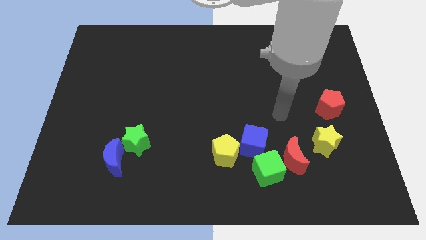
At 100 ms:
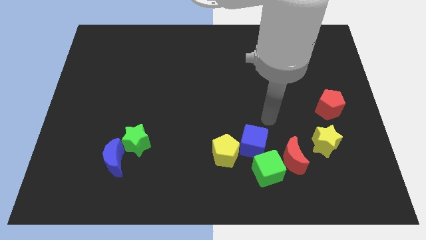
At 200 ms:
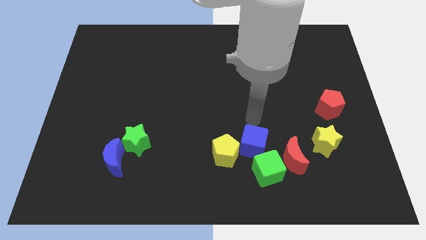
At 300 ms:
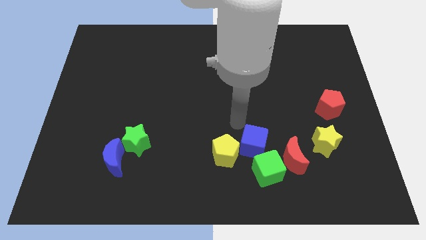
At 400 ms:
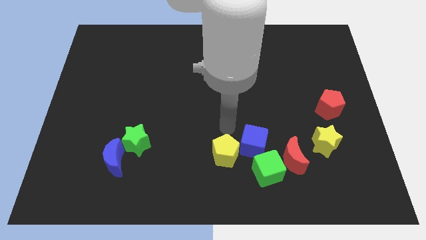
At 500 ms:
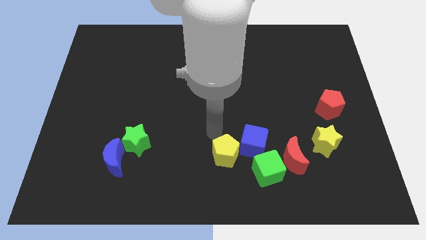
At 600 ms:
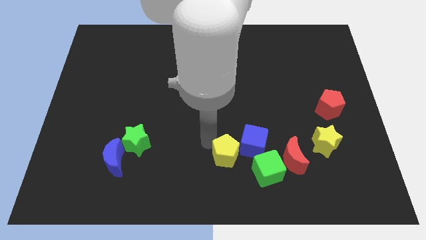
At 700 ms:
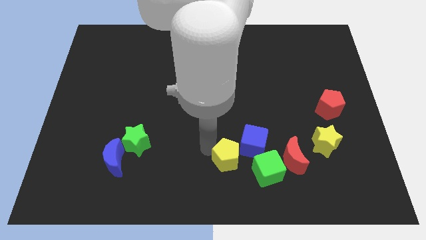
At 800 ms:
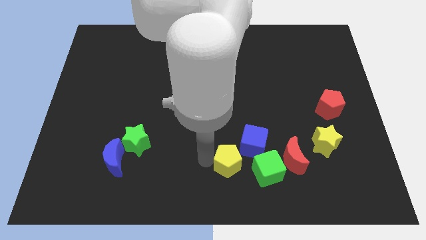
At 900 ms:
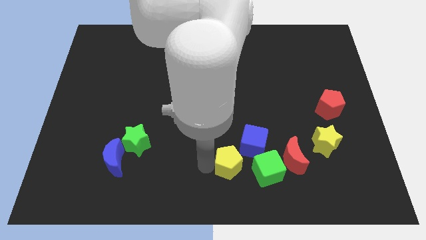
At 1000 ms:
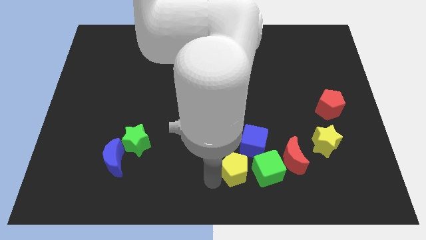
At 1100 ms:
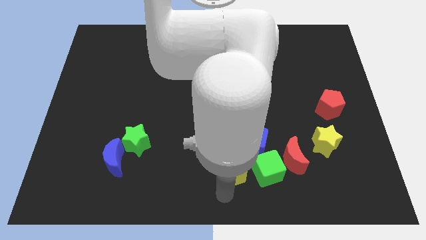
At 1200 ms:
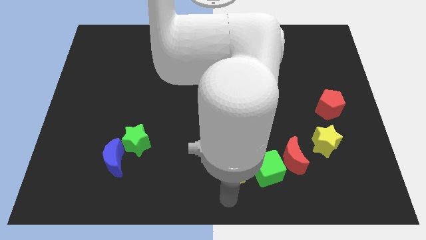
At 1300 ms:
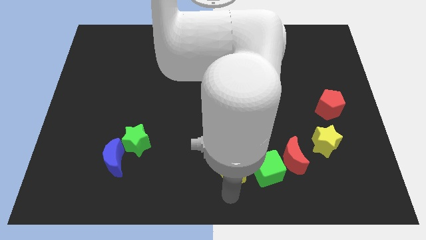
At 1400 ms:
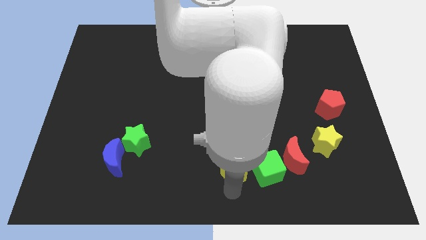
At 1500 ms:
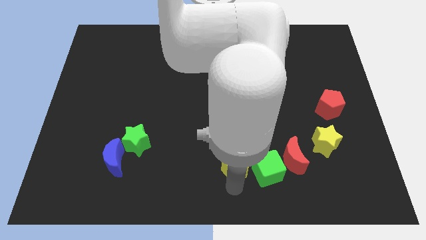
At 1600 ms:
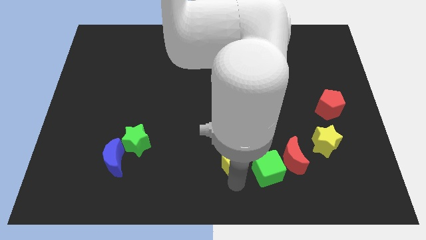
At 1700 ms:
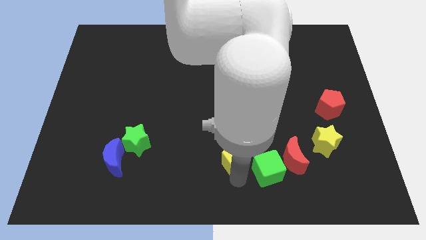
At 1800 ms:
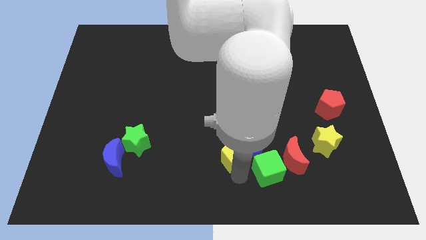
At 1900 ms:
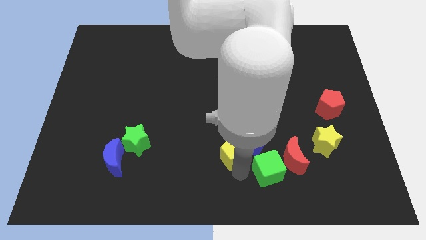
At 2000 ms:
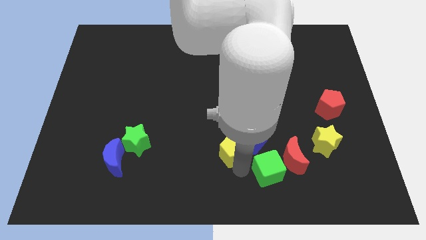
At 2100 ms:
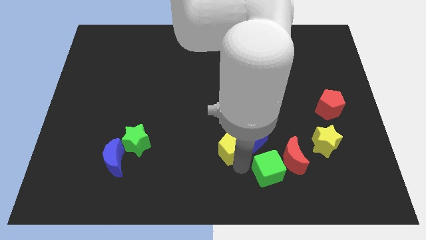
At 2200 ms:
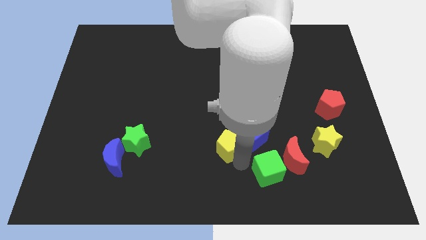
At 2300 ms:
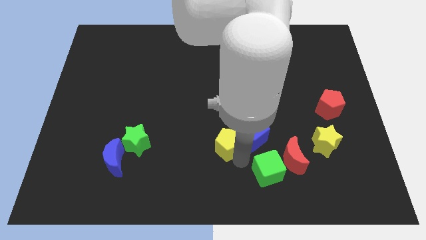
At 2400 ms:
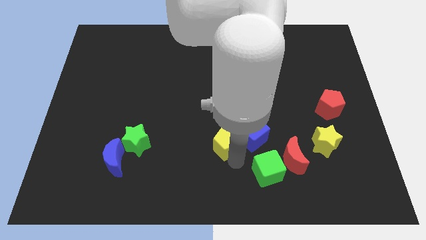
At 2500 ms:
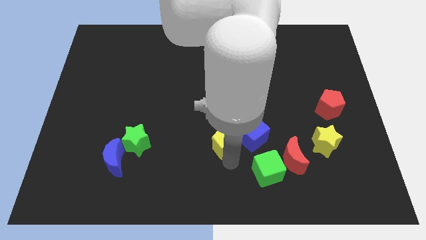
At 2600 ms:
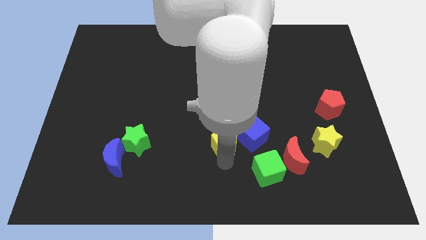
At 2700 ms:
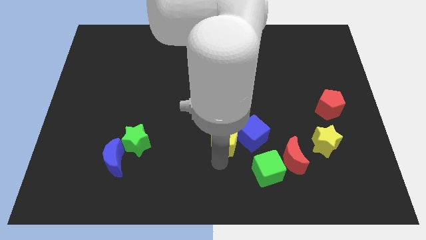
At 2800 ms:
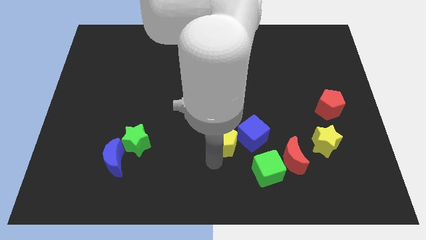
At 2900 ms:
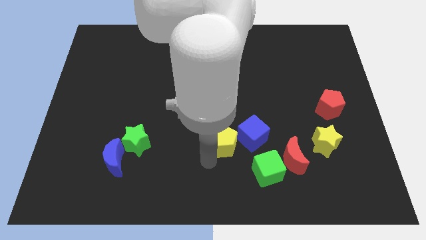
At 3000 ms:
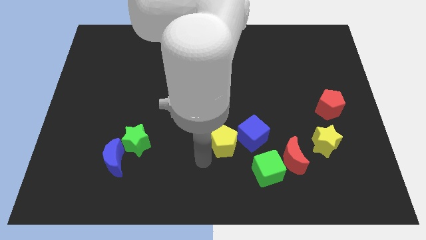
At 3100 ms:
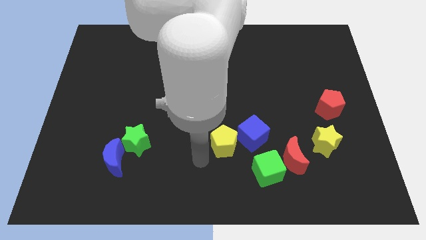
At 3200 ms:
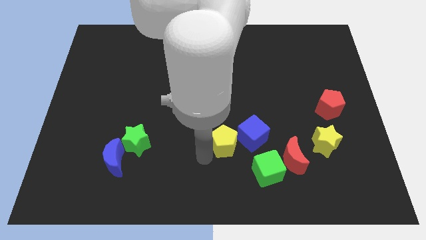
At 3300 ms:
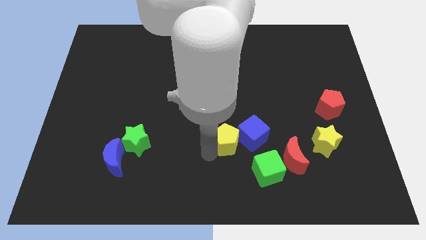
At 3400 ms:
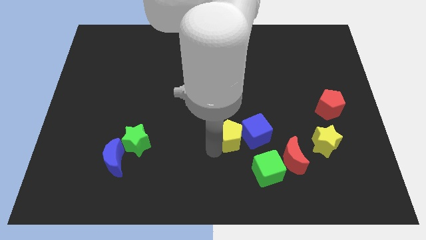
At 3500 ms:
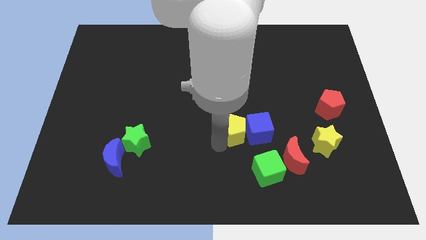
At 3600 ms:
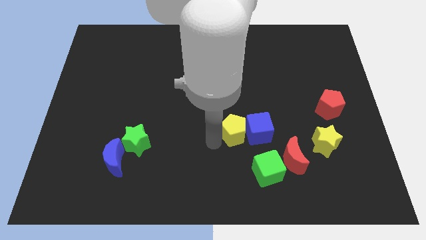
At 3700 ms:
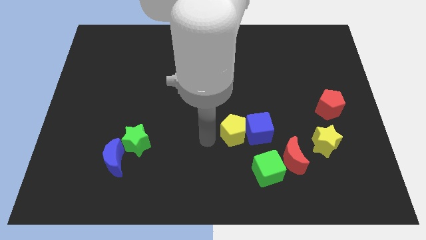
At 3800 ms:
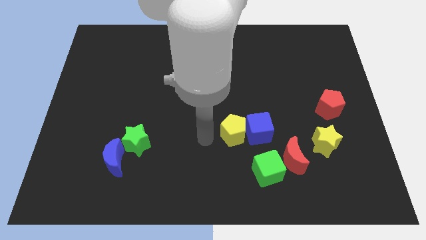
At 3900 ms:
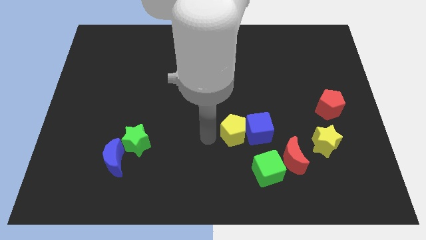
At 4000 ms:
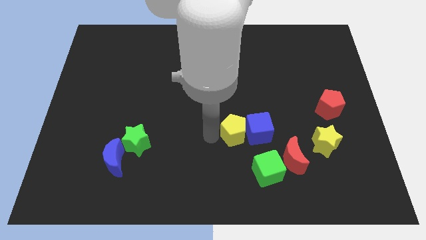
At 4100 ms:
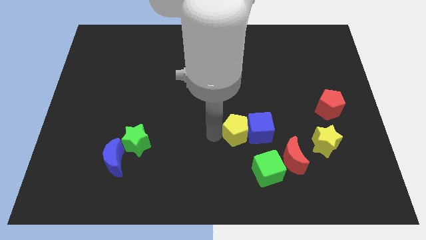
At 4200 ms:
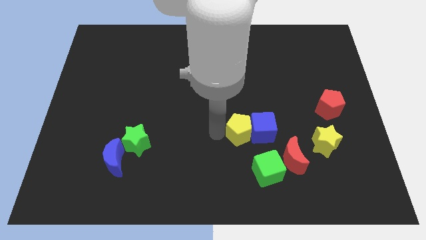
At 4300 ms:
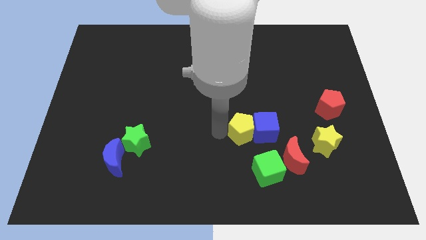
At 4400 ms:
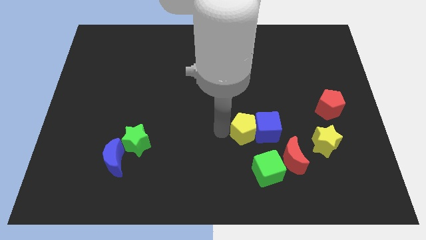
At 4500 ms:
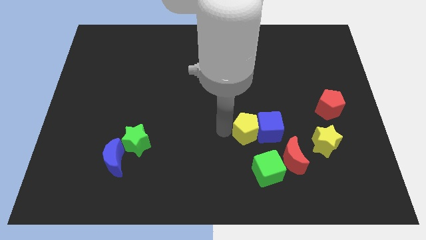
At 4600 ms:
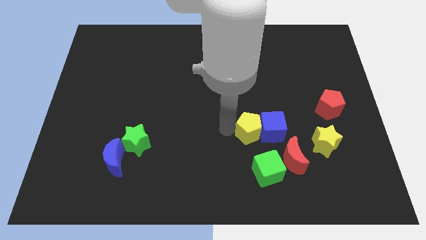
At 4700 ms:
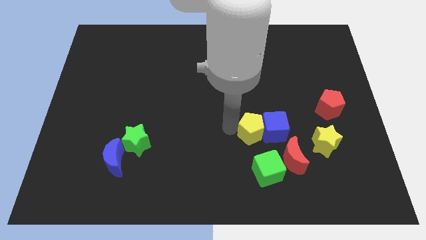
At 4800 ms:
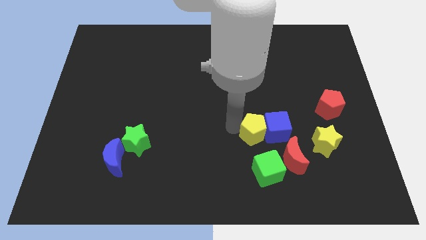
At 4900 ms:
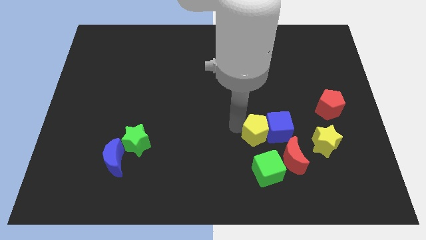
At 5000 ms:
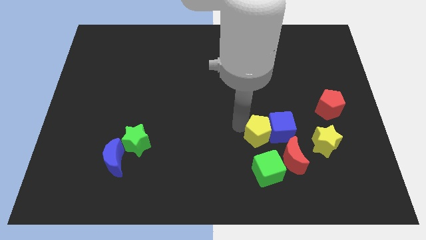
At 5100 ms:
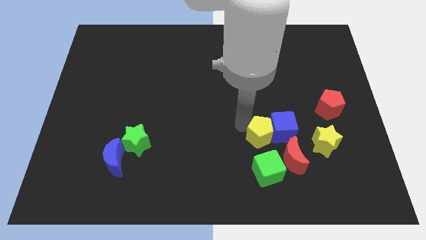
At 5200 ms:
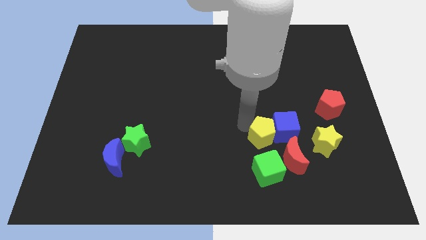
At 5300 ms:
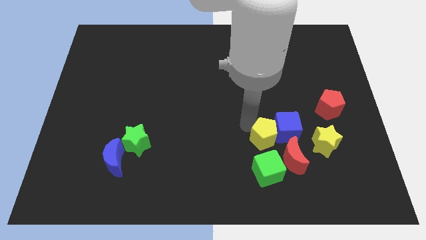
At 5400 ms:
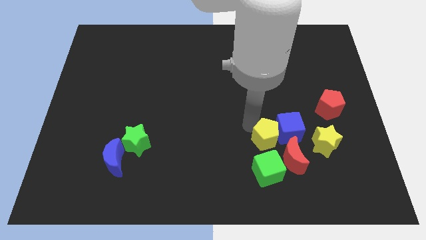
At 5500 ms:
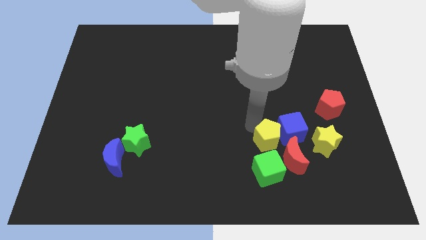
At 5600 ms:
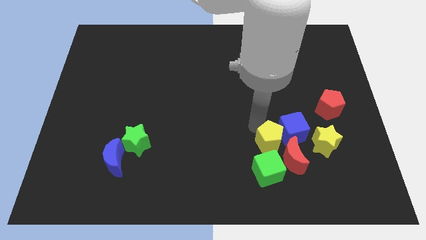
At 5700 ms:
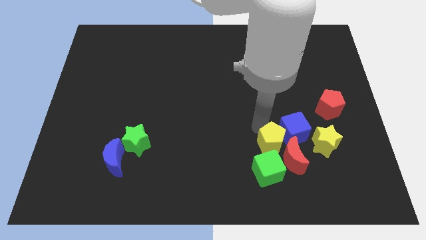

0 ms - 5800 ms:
slide the yellow pentagon towards the red moon

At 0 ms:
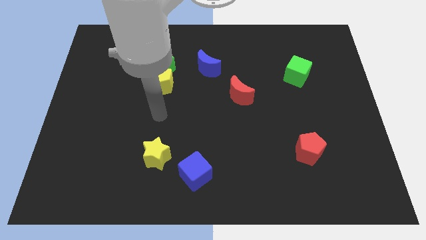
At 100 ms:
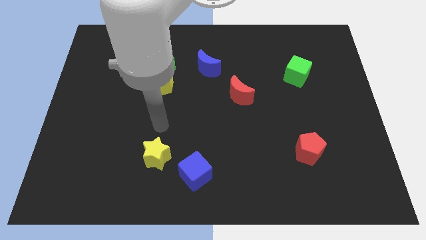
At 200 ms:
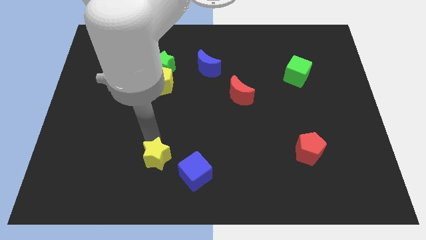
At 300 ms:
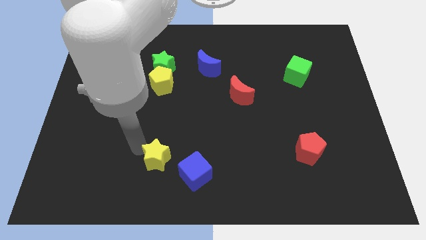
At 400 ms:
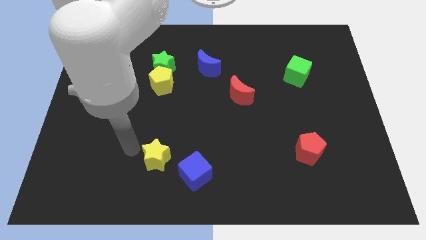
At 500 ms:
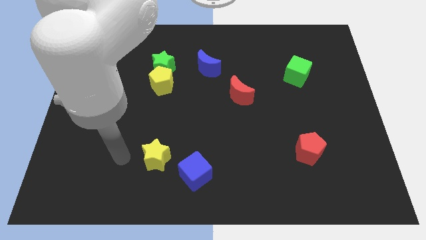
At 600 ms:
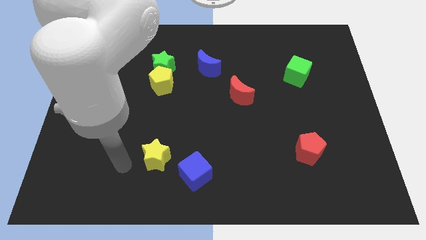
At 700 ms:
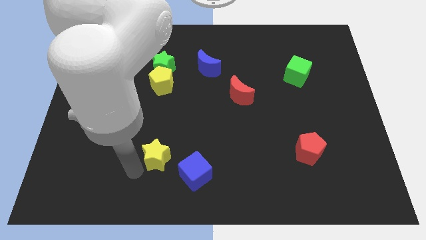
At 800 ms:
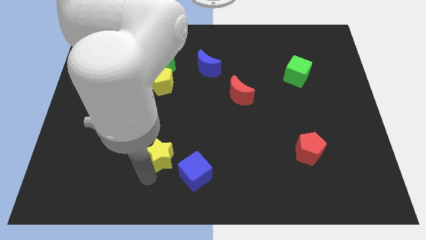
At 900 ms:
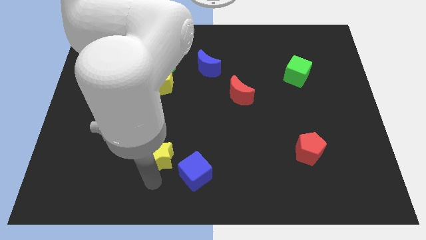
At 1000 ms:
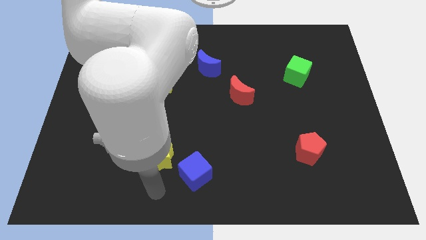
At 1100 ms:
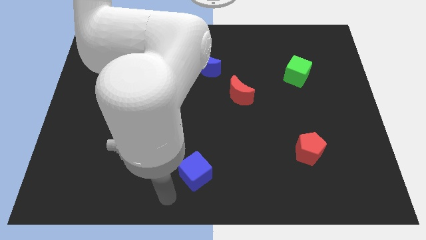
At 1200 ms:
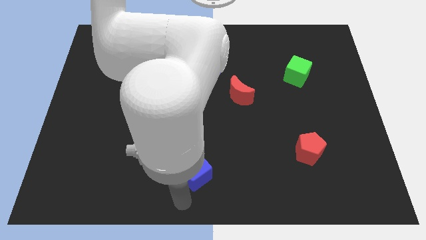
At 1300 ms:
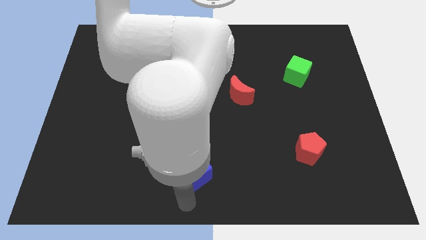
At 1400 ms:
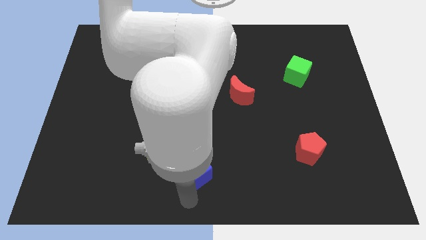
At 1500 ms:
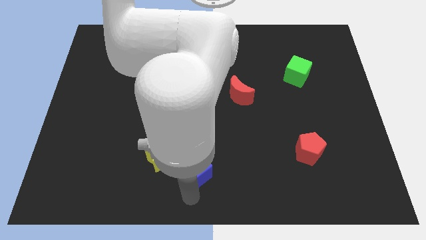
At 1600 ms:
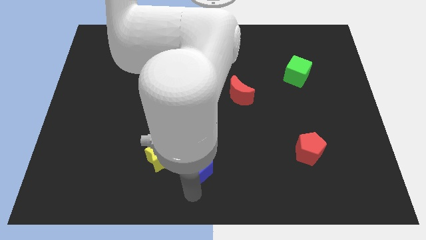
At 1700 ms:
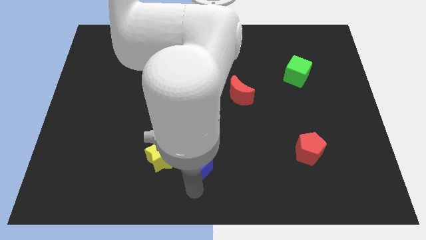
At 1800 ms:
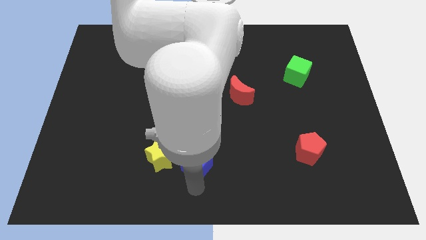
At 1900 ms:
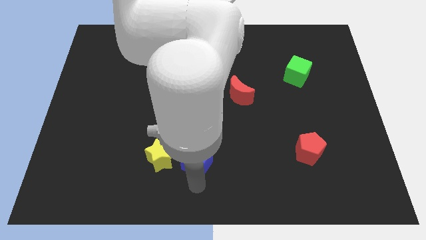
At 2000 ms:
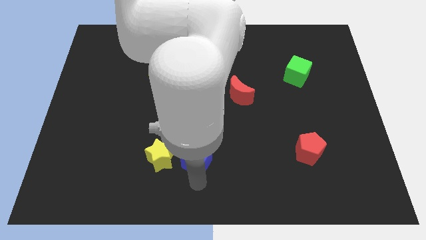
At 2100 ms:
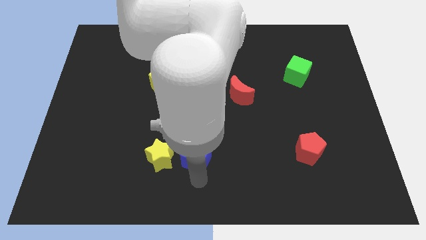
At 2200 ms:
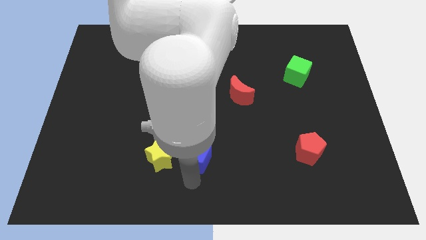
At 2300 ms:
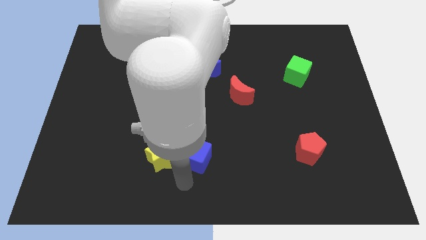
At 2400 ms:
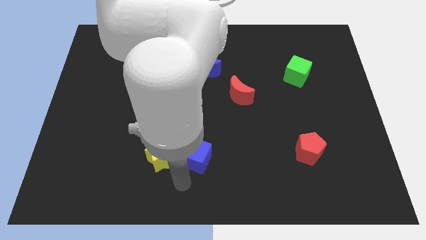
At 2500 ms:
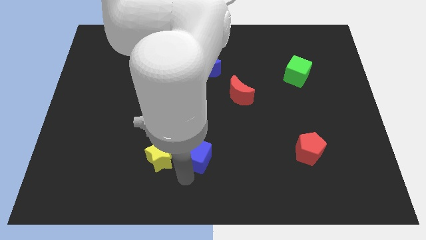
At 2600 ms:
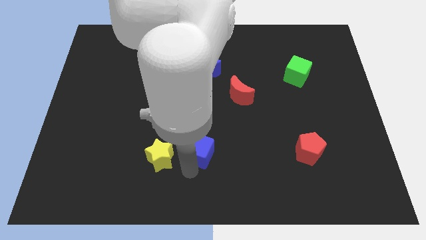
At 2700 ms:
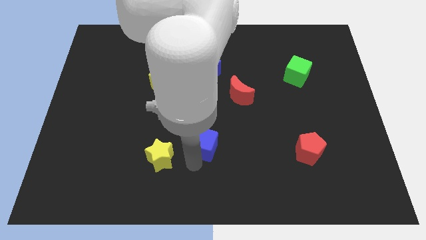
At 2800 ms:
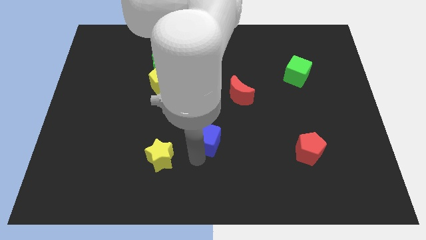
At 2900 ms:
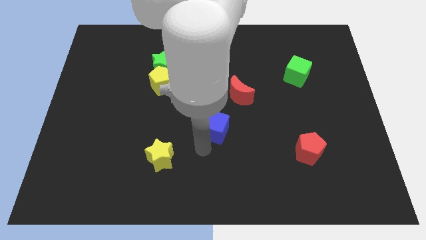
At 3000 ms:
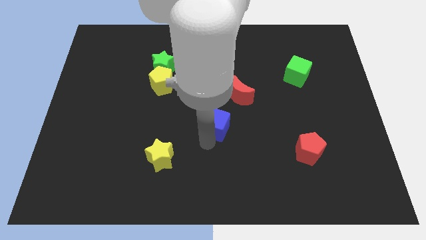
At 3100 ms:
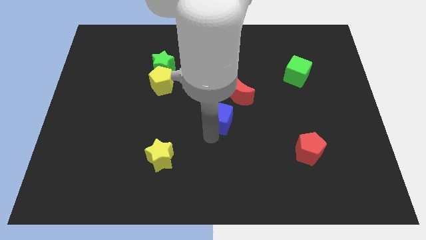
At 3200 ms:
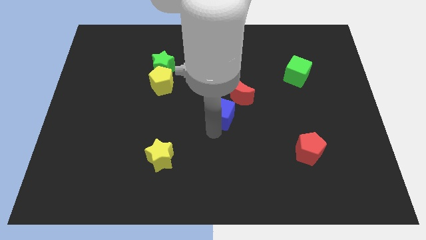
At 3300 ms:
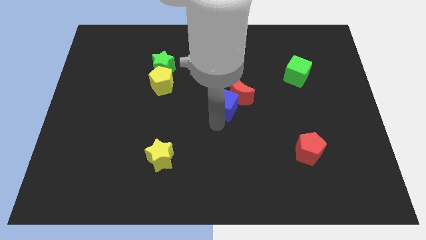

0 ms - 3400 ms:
put the blue cube next to the red moon
